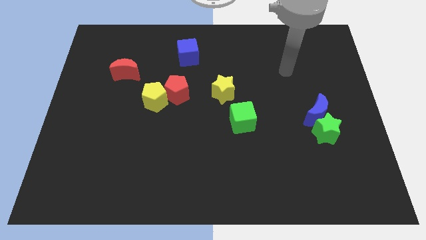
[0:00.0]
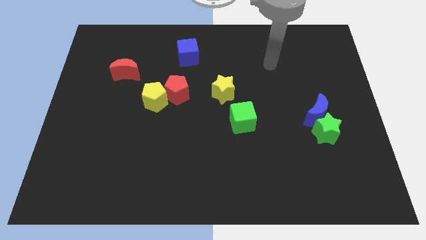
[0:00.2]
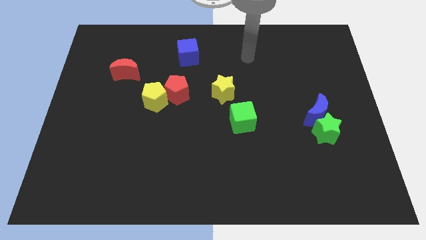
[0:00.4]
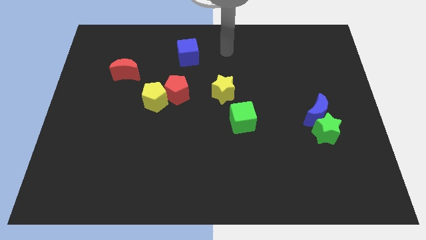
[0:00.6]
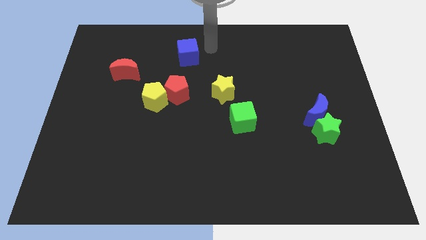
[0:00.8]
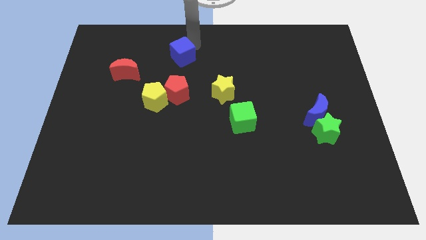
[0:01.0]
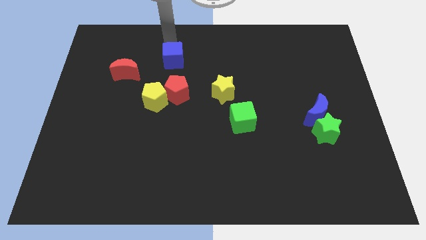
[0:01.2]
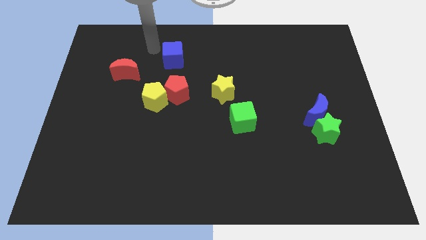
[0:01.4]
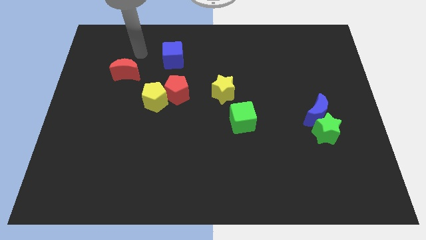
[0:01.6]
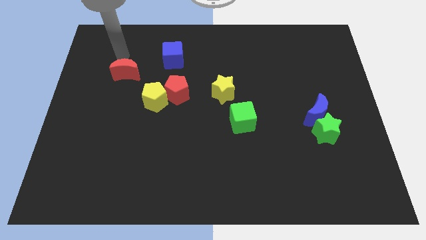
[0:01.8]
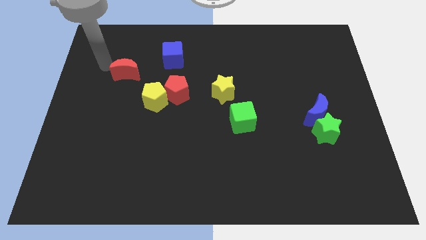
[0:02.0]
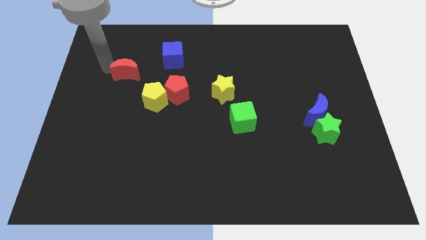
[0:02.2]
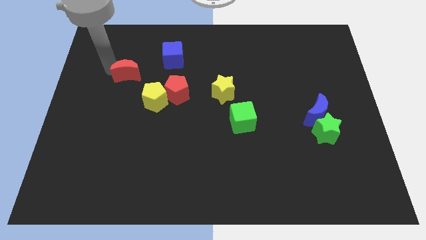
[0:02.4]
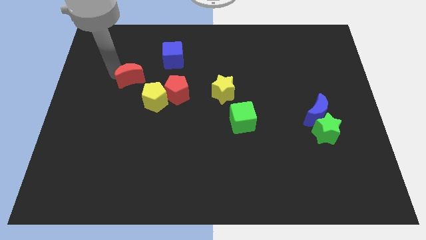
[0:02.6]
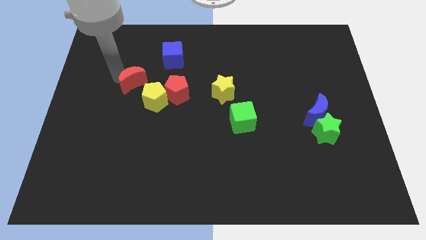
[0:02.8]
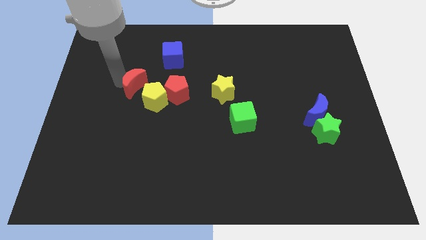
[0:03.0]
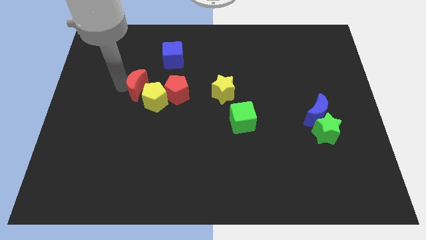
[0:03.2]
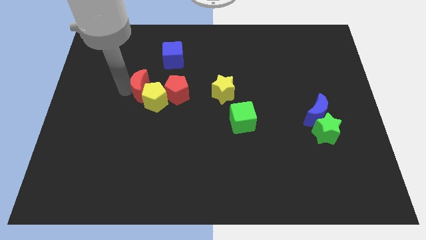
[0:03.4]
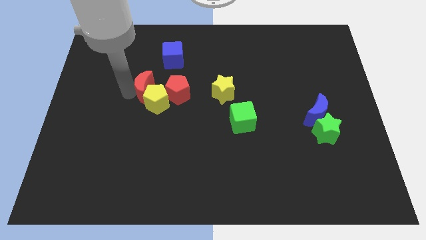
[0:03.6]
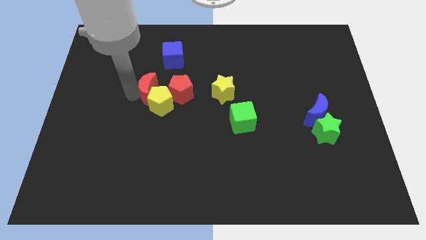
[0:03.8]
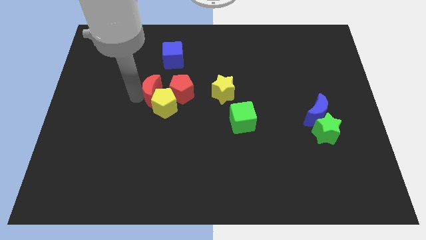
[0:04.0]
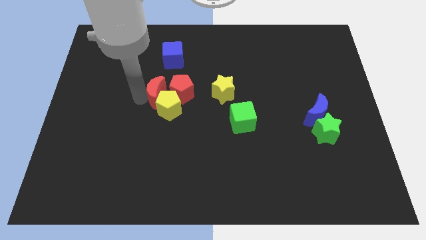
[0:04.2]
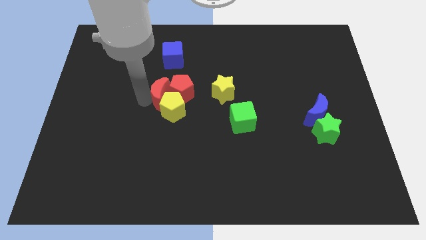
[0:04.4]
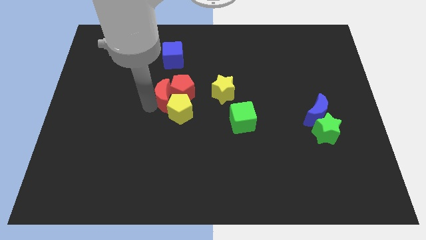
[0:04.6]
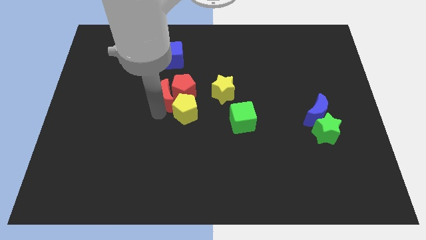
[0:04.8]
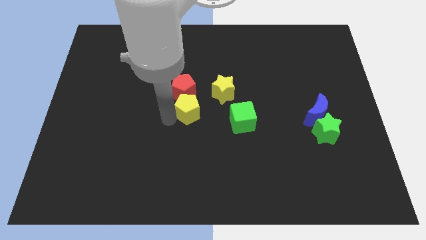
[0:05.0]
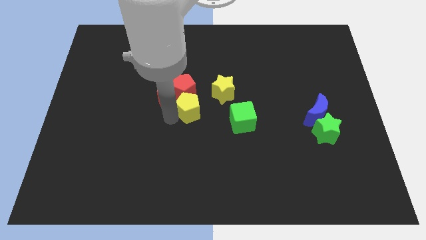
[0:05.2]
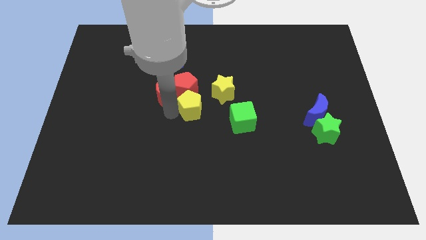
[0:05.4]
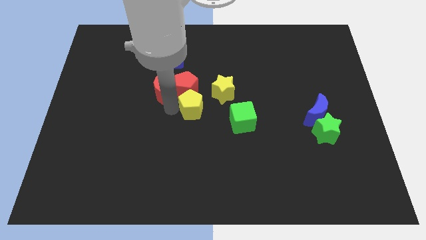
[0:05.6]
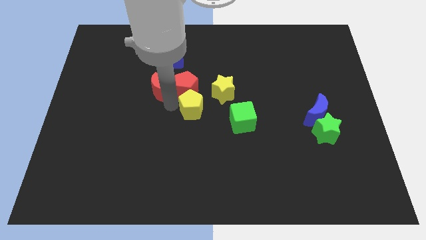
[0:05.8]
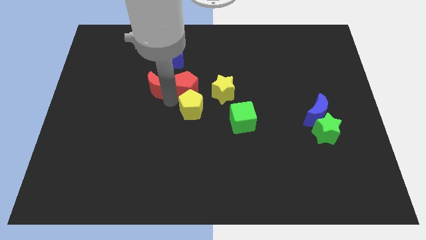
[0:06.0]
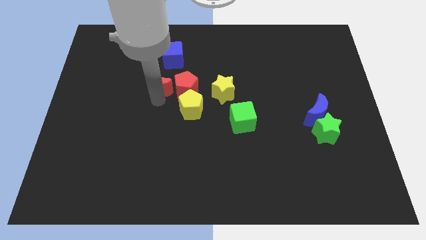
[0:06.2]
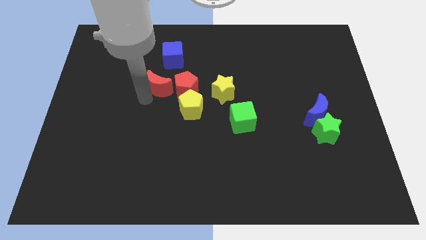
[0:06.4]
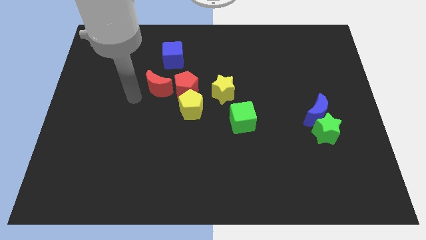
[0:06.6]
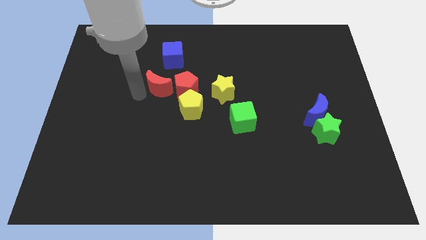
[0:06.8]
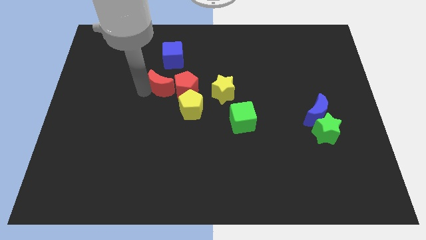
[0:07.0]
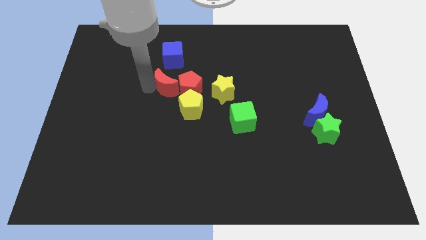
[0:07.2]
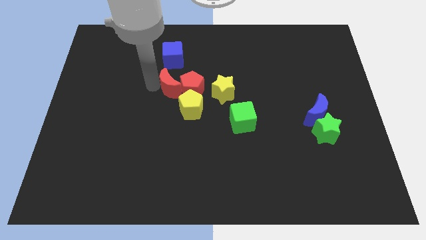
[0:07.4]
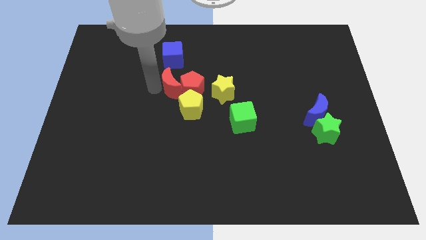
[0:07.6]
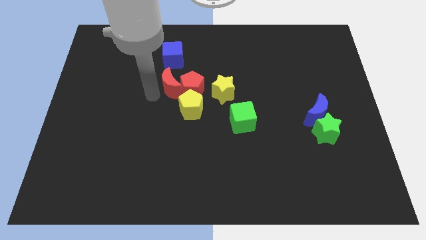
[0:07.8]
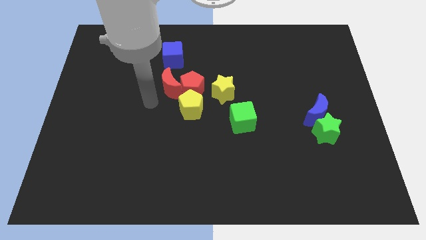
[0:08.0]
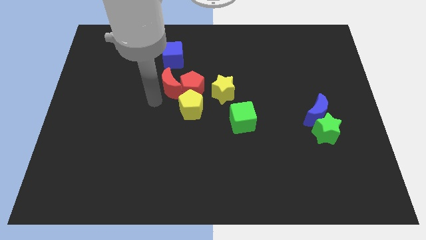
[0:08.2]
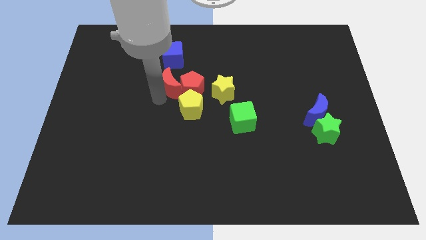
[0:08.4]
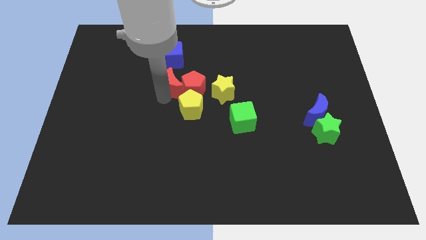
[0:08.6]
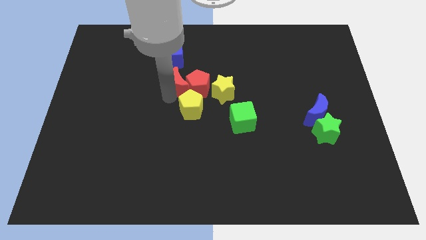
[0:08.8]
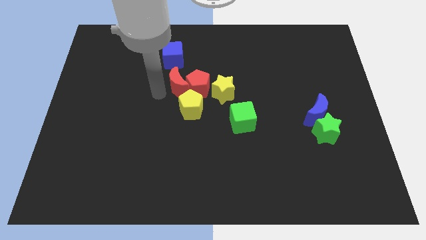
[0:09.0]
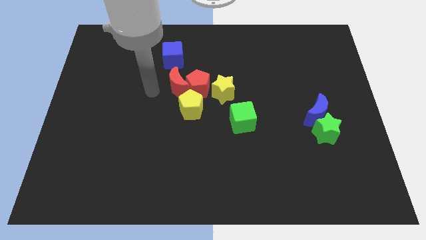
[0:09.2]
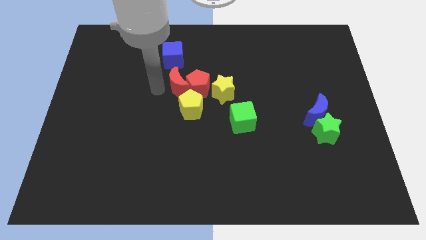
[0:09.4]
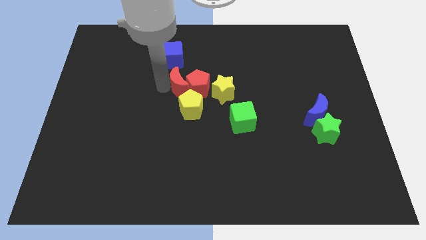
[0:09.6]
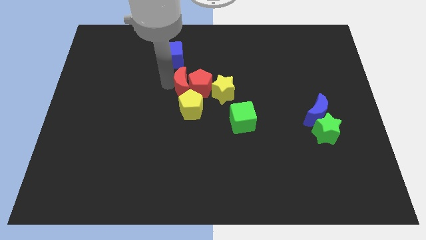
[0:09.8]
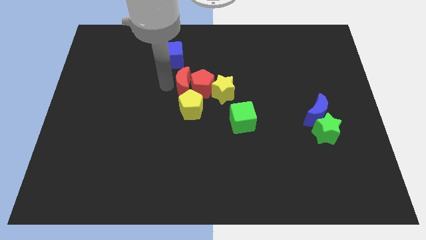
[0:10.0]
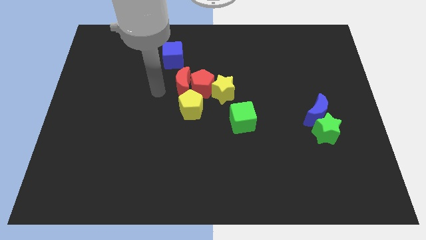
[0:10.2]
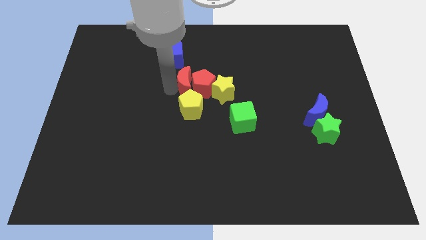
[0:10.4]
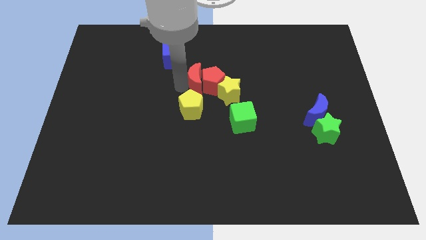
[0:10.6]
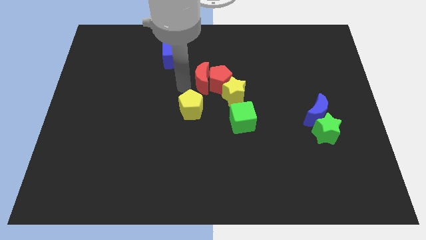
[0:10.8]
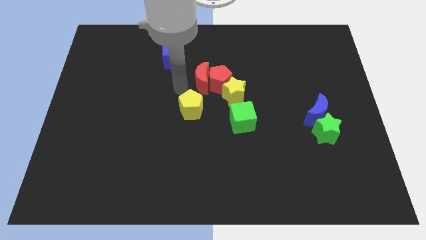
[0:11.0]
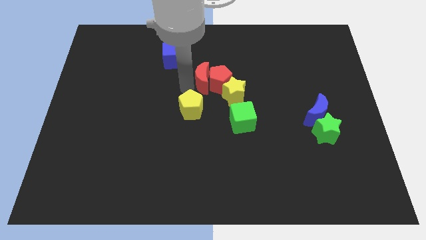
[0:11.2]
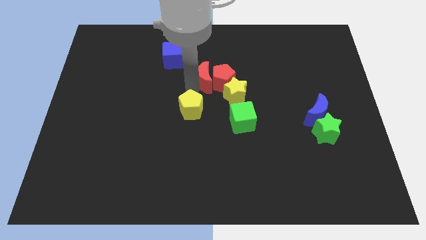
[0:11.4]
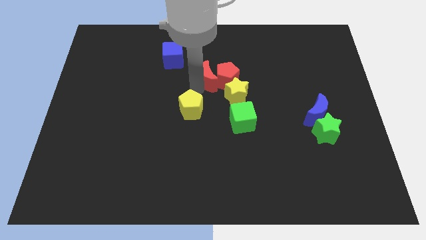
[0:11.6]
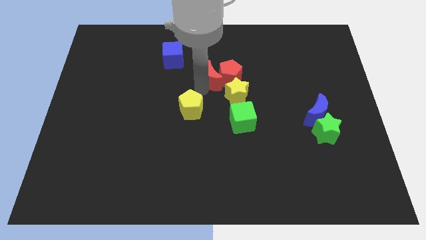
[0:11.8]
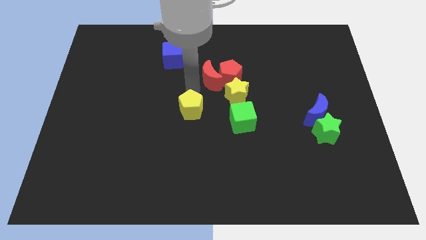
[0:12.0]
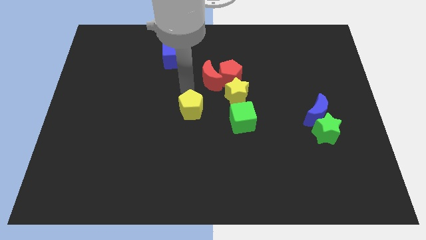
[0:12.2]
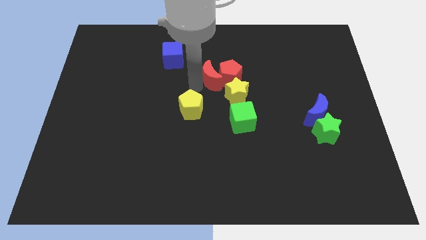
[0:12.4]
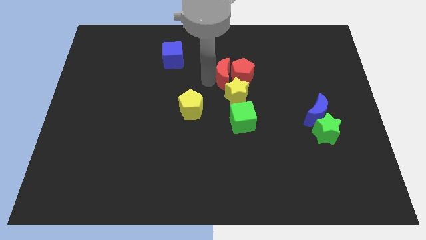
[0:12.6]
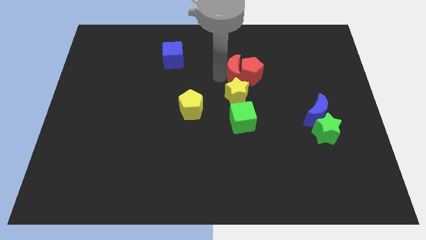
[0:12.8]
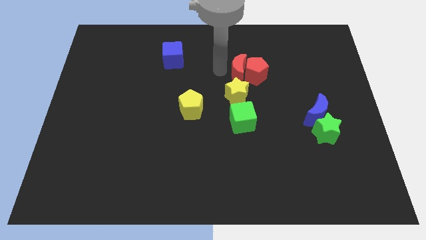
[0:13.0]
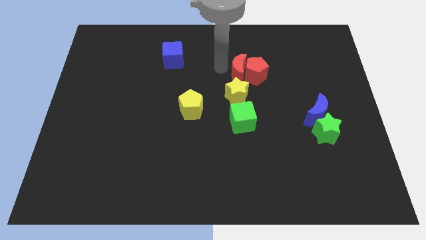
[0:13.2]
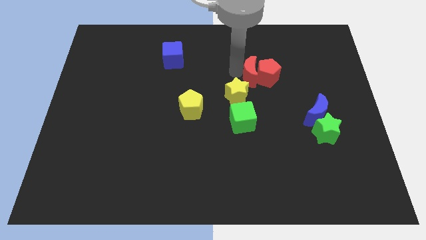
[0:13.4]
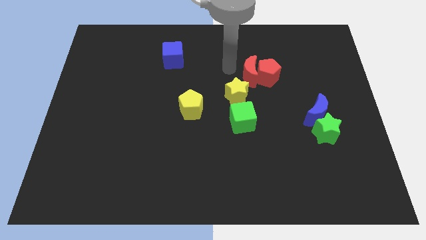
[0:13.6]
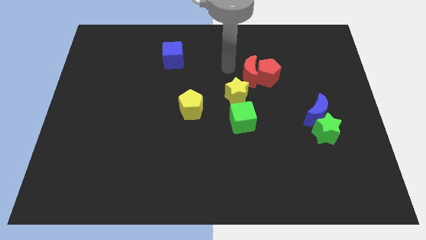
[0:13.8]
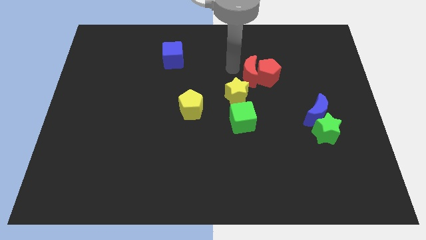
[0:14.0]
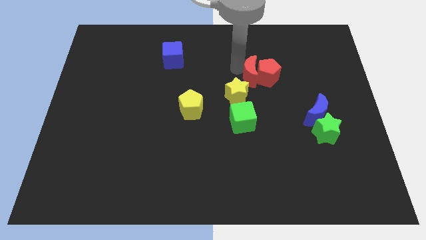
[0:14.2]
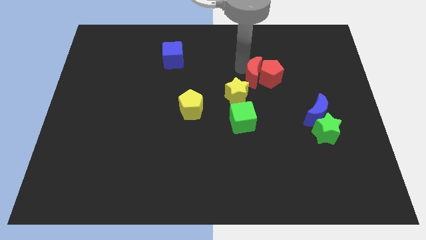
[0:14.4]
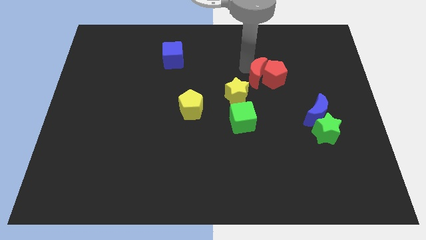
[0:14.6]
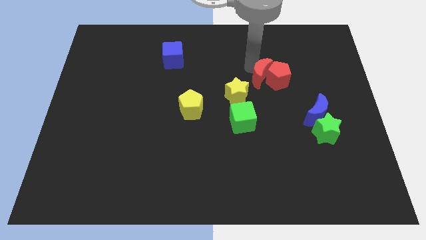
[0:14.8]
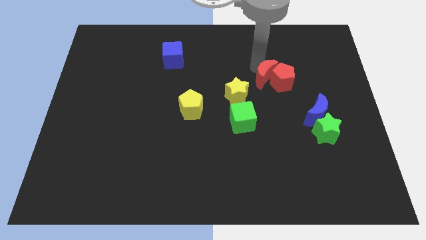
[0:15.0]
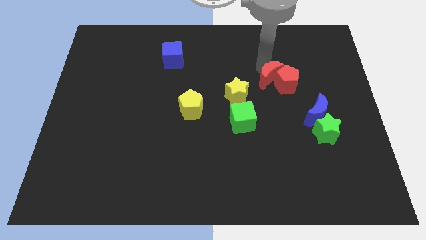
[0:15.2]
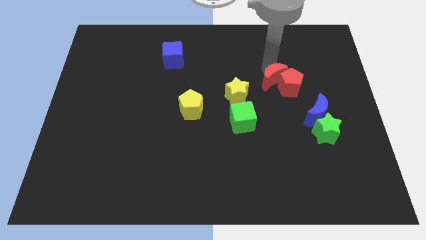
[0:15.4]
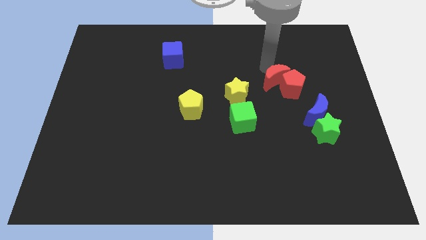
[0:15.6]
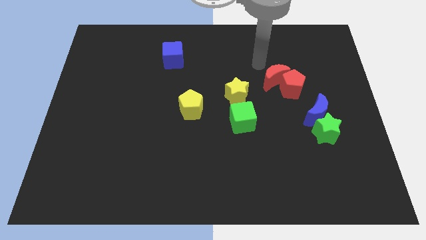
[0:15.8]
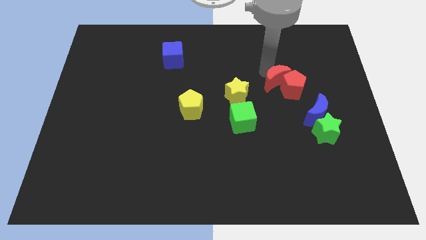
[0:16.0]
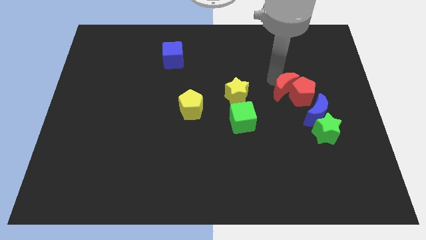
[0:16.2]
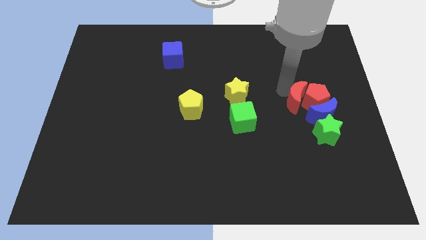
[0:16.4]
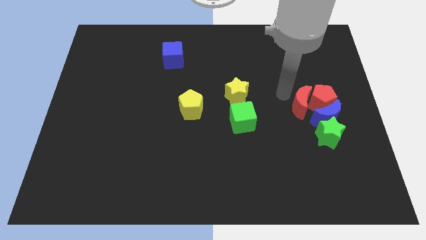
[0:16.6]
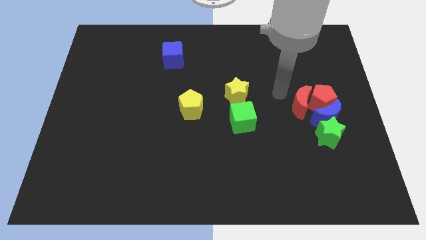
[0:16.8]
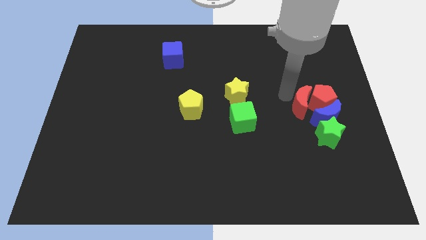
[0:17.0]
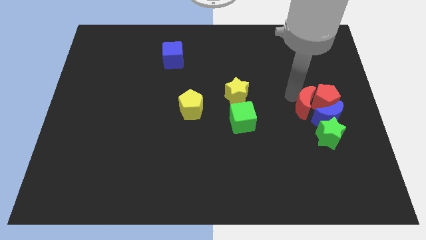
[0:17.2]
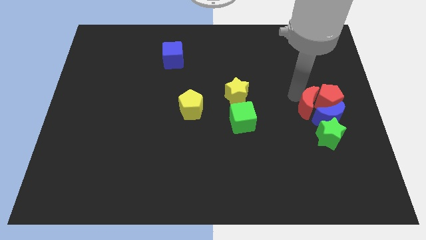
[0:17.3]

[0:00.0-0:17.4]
move the red moon close to the blue moon
